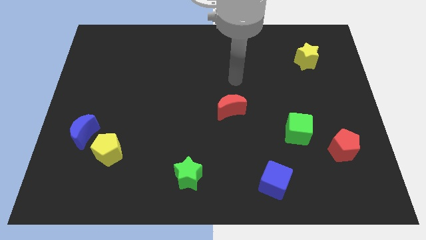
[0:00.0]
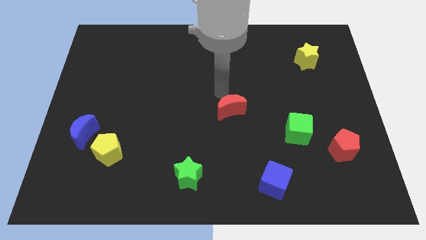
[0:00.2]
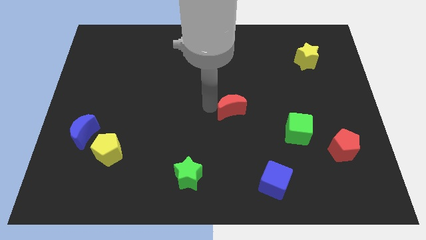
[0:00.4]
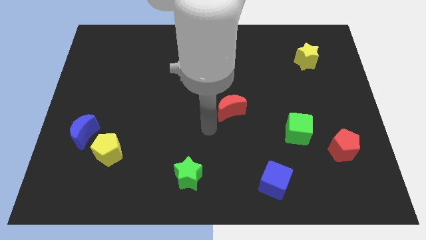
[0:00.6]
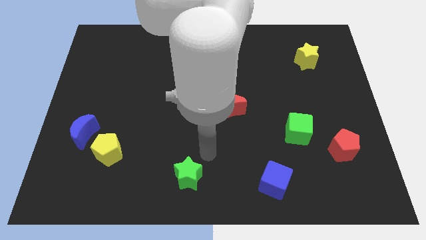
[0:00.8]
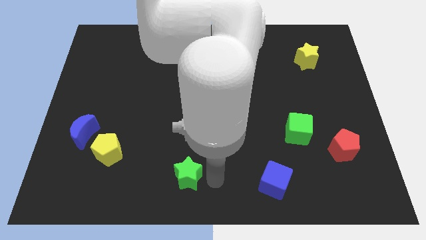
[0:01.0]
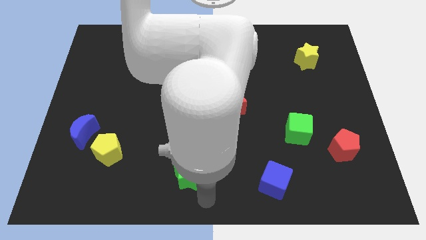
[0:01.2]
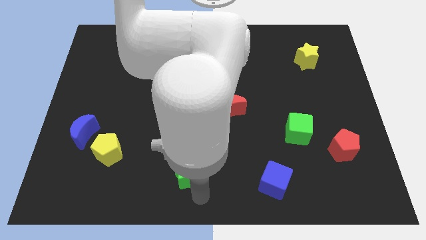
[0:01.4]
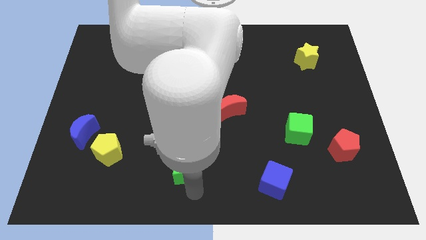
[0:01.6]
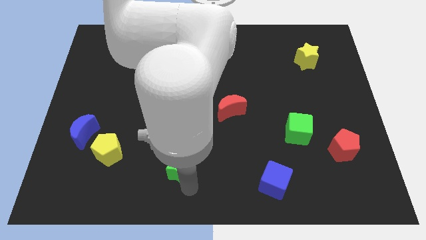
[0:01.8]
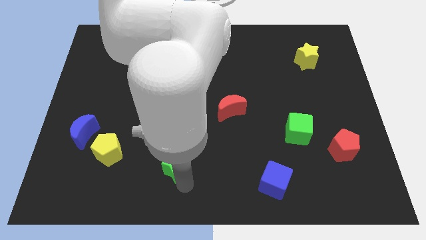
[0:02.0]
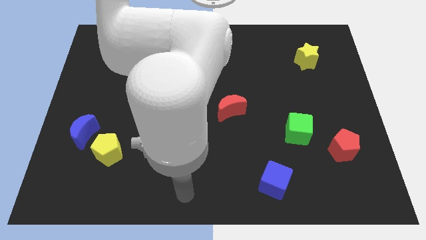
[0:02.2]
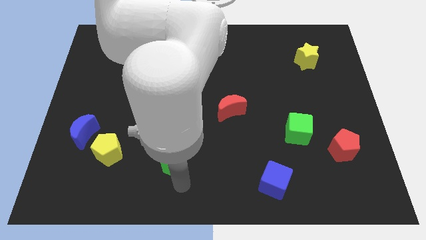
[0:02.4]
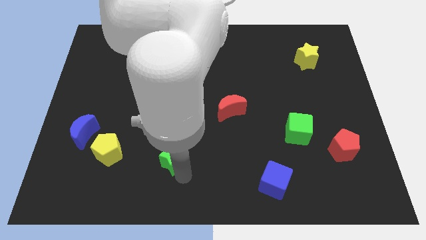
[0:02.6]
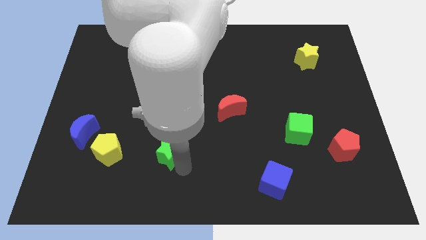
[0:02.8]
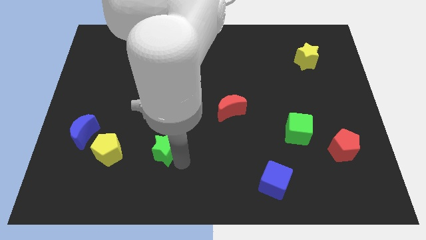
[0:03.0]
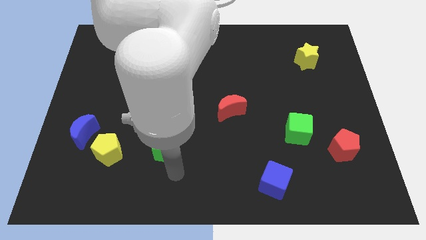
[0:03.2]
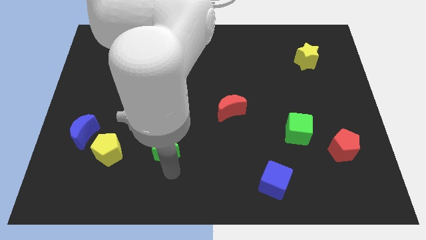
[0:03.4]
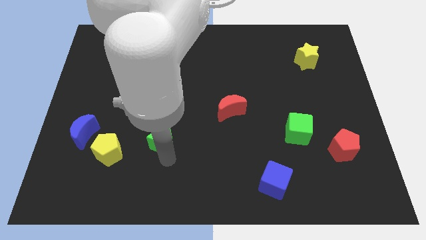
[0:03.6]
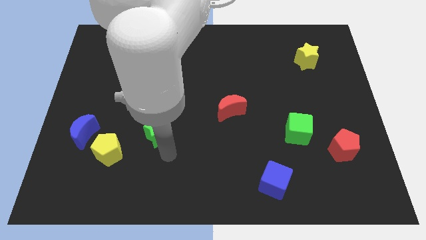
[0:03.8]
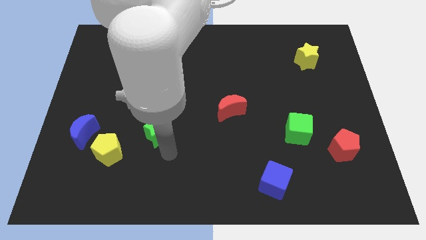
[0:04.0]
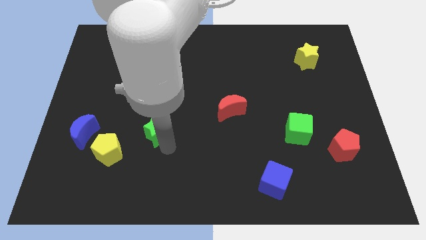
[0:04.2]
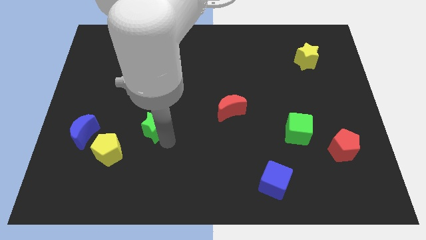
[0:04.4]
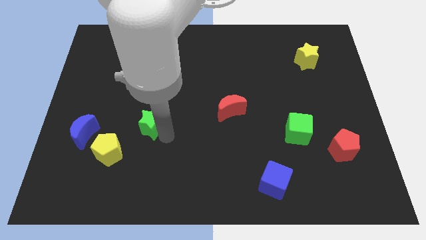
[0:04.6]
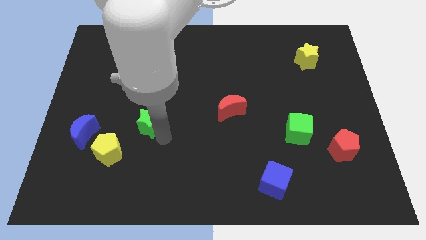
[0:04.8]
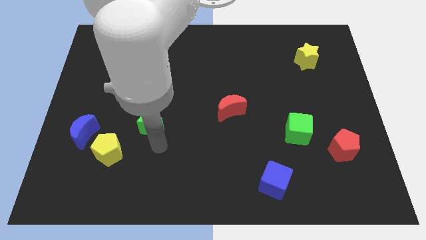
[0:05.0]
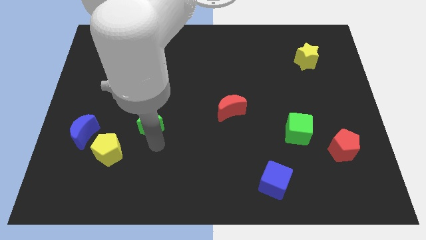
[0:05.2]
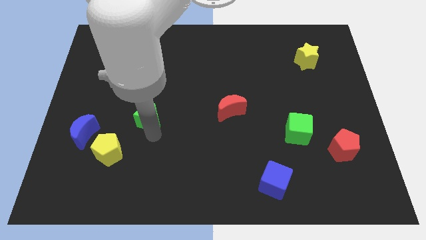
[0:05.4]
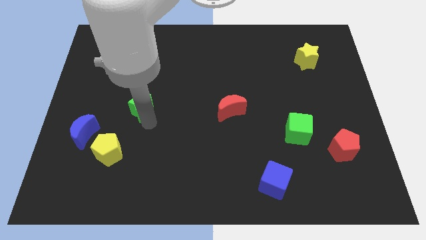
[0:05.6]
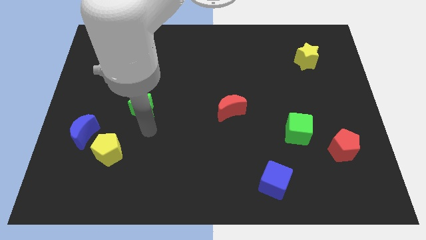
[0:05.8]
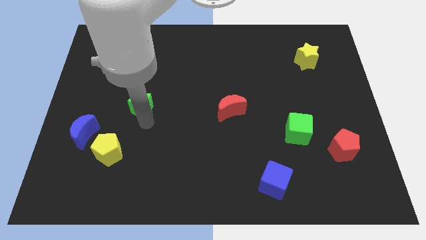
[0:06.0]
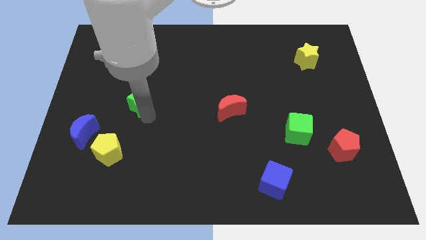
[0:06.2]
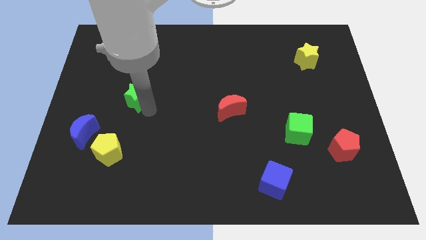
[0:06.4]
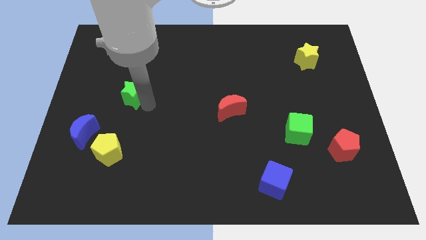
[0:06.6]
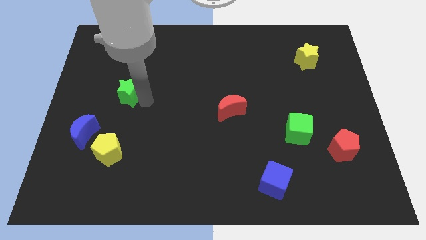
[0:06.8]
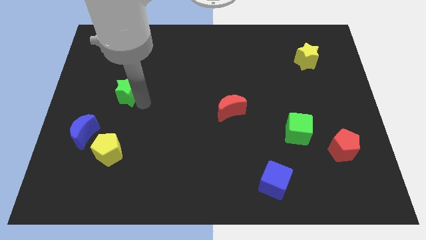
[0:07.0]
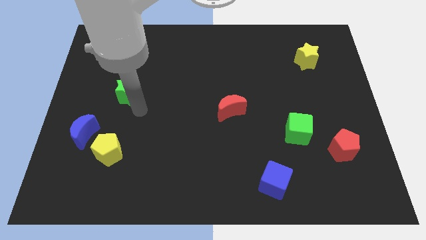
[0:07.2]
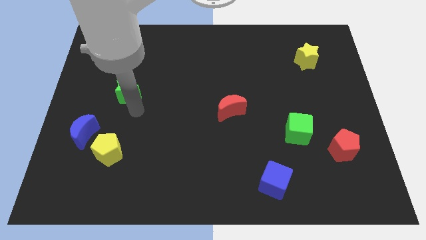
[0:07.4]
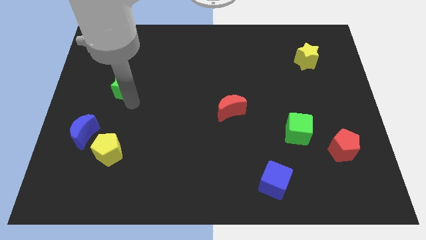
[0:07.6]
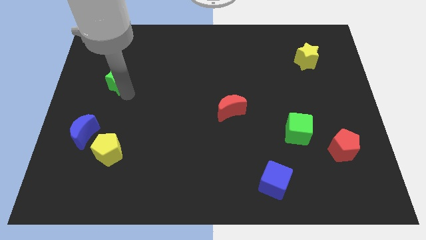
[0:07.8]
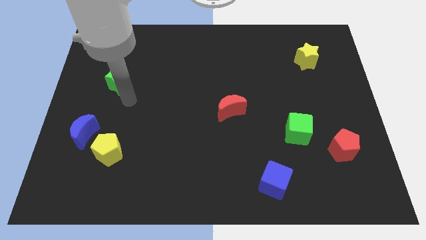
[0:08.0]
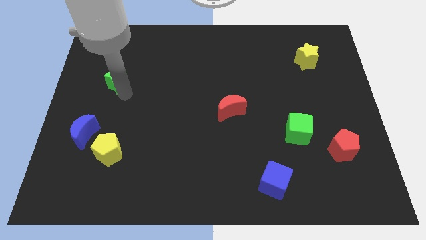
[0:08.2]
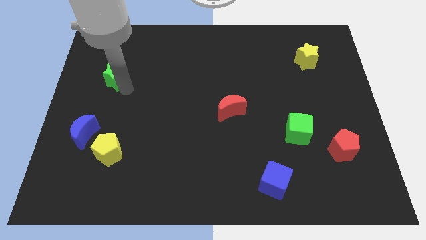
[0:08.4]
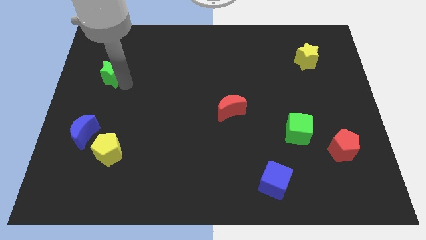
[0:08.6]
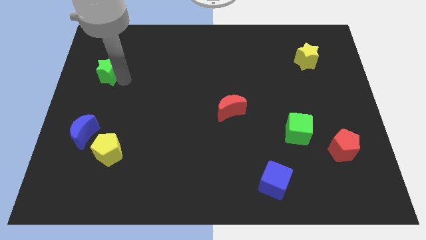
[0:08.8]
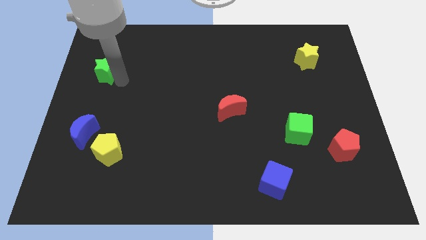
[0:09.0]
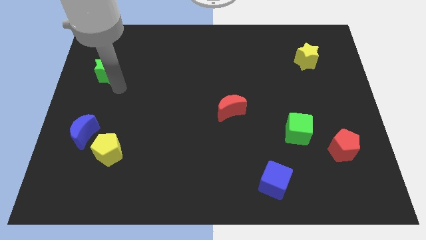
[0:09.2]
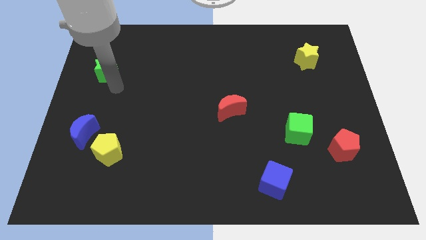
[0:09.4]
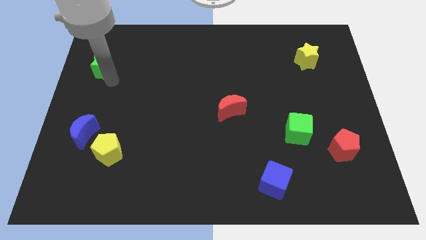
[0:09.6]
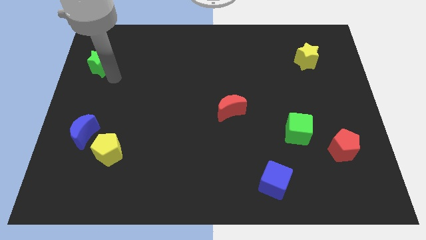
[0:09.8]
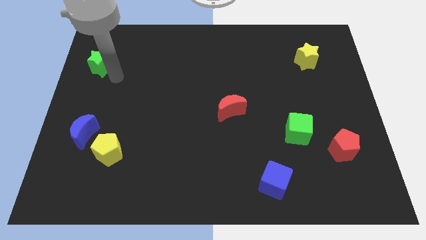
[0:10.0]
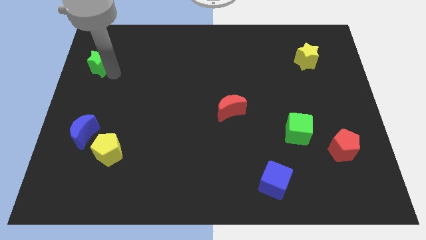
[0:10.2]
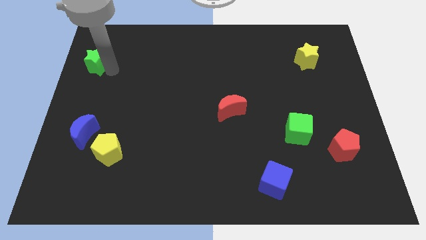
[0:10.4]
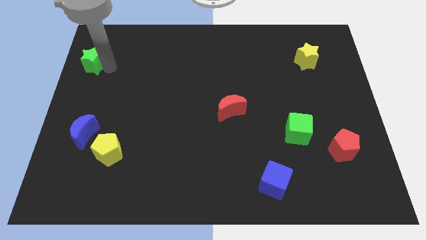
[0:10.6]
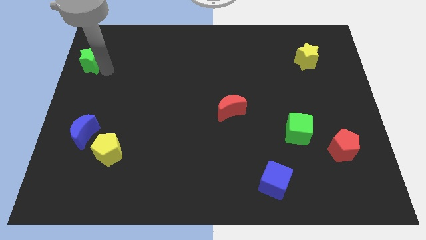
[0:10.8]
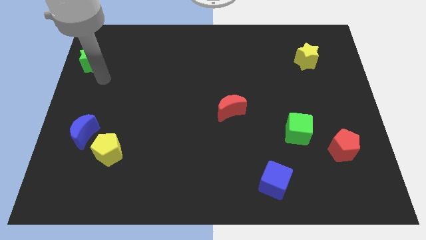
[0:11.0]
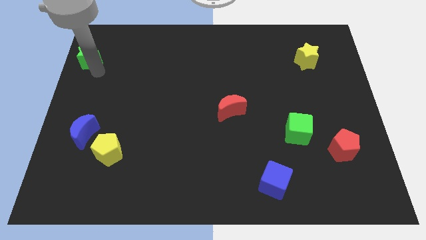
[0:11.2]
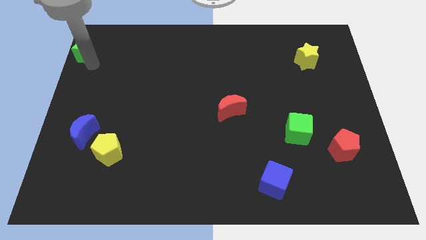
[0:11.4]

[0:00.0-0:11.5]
put the green star to the top left of the board

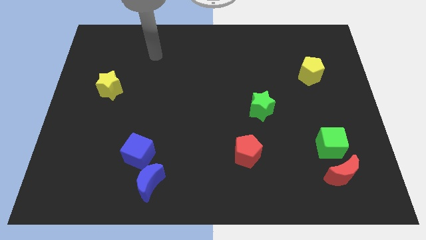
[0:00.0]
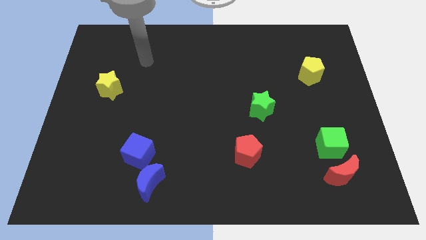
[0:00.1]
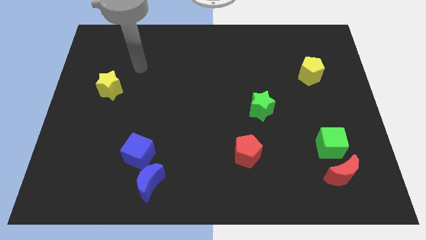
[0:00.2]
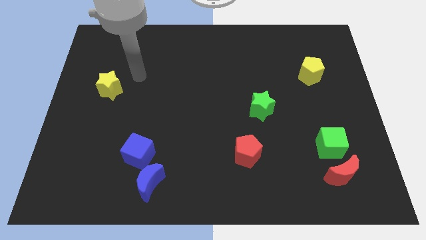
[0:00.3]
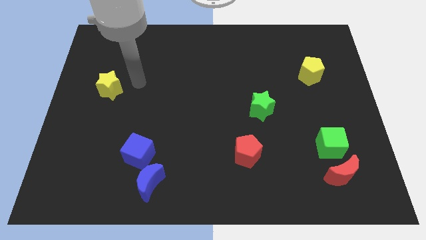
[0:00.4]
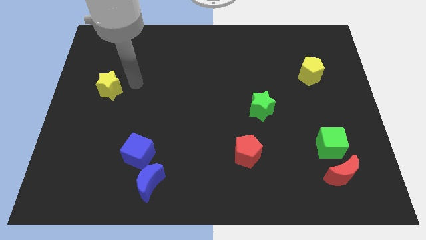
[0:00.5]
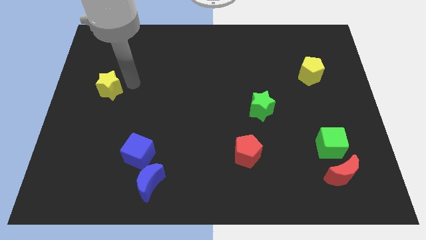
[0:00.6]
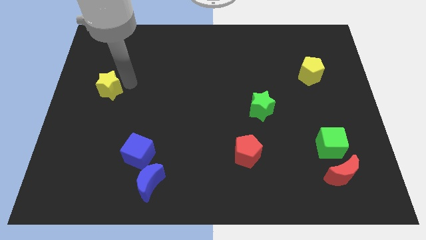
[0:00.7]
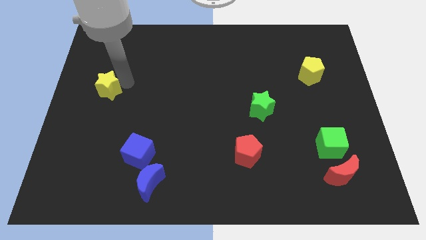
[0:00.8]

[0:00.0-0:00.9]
push the yellow star to the left side of the board

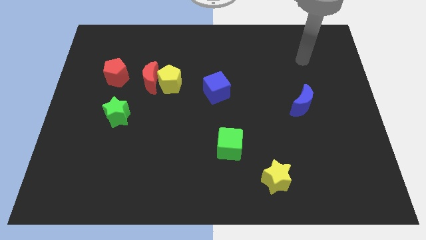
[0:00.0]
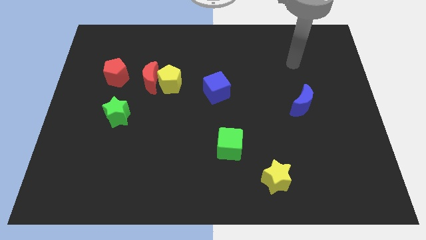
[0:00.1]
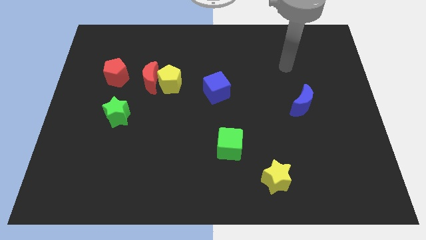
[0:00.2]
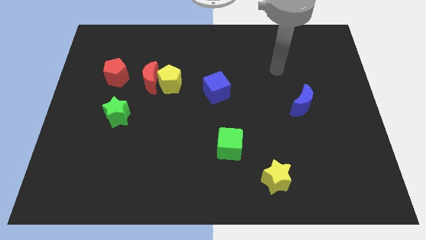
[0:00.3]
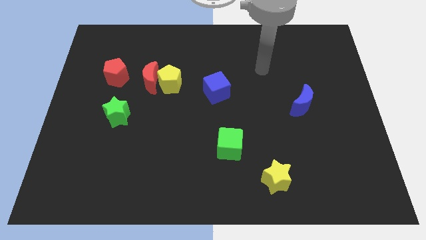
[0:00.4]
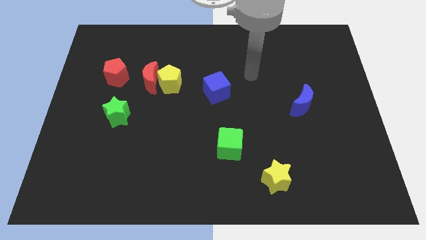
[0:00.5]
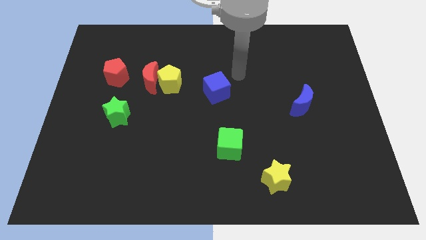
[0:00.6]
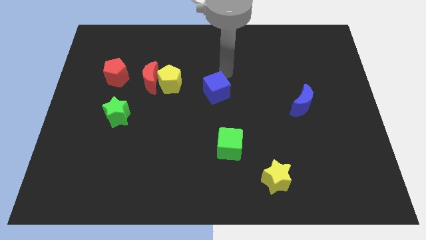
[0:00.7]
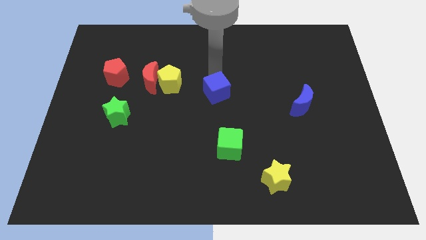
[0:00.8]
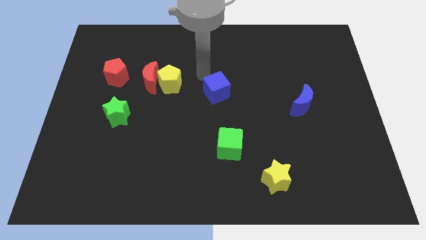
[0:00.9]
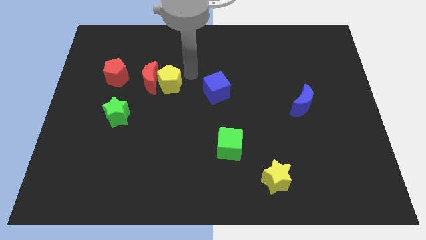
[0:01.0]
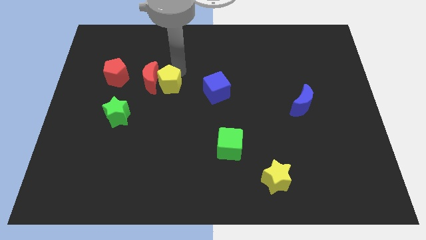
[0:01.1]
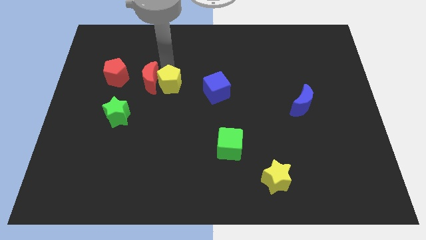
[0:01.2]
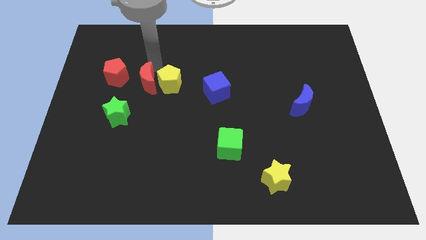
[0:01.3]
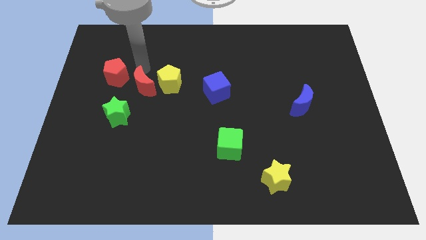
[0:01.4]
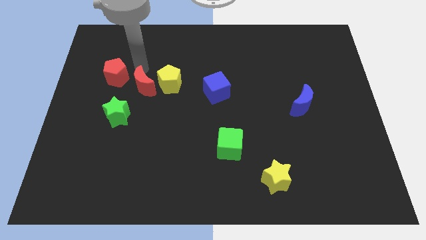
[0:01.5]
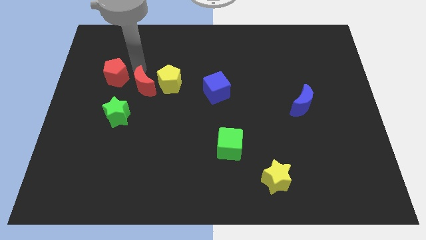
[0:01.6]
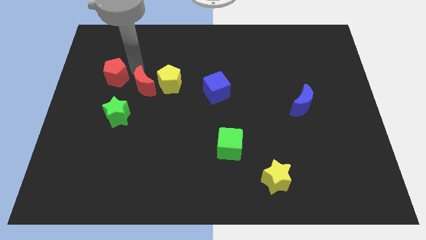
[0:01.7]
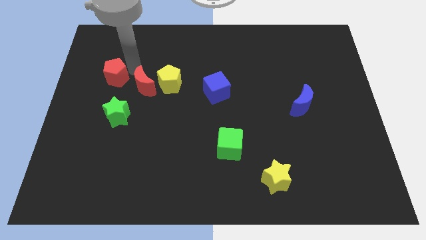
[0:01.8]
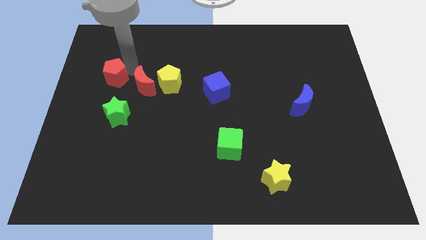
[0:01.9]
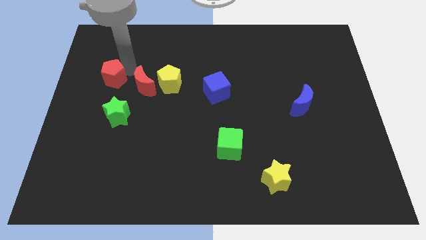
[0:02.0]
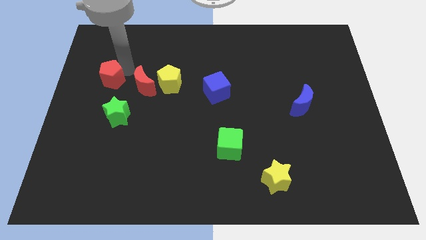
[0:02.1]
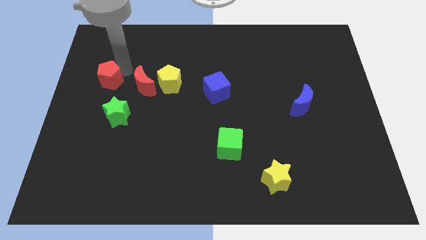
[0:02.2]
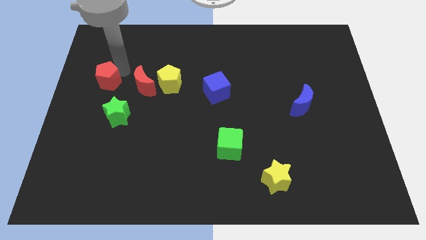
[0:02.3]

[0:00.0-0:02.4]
put the red pentagon to the left side
